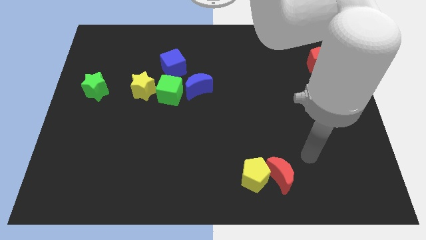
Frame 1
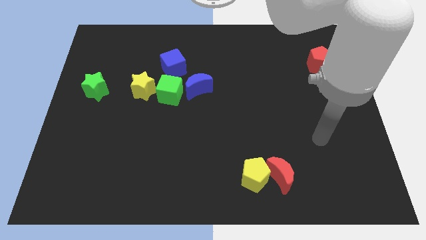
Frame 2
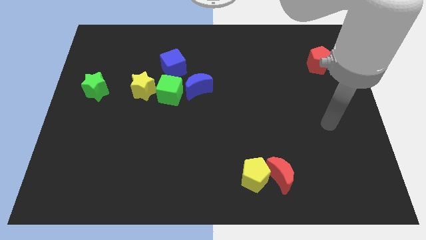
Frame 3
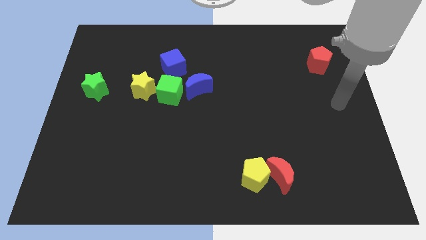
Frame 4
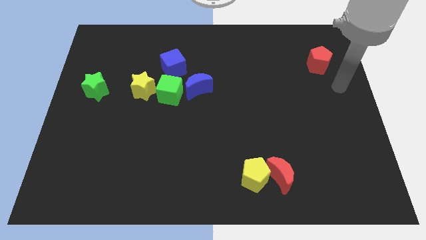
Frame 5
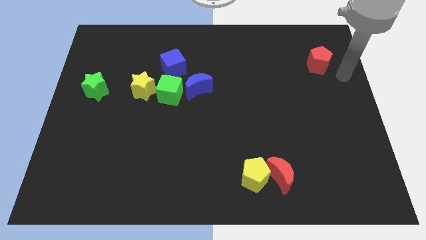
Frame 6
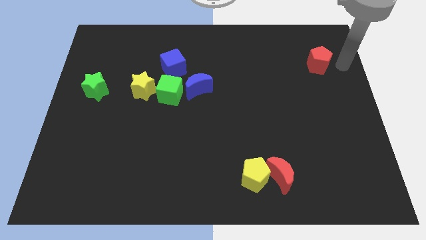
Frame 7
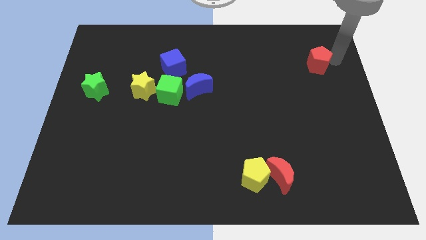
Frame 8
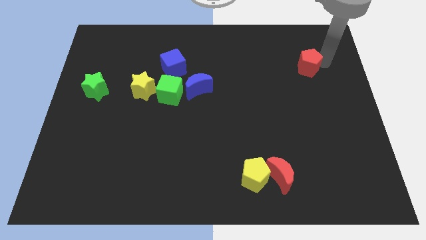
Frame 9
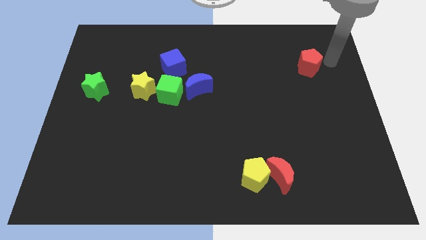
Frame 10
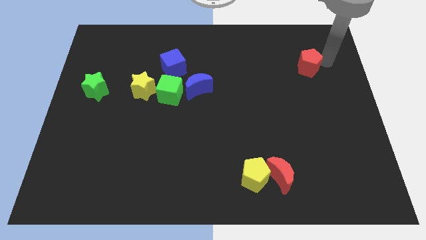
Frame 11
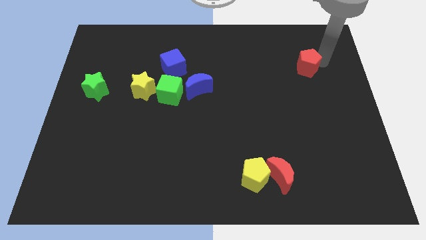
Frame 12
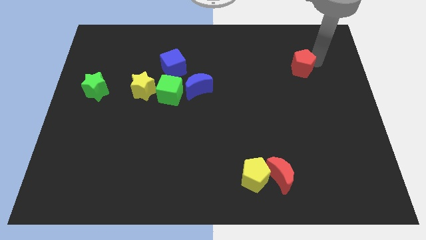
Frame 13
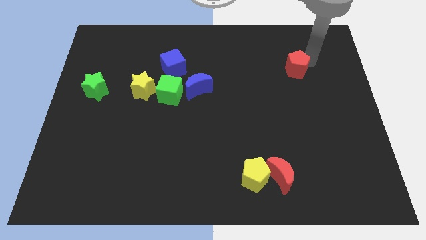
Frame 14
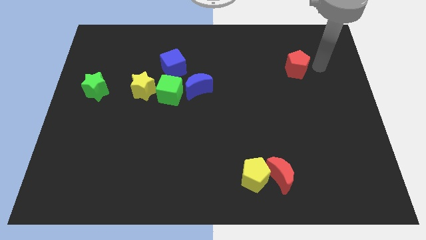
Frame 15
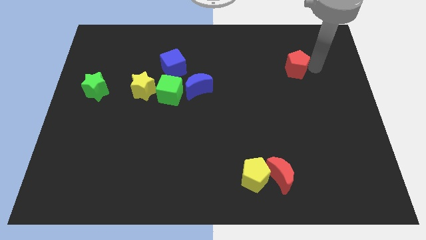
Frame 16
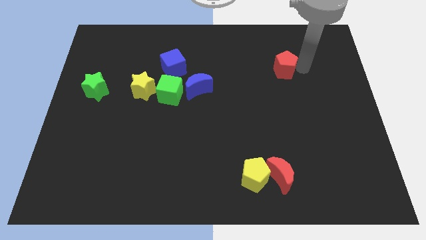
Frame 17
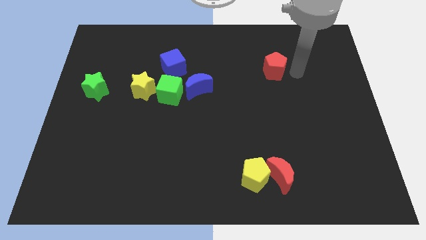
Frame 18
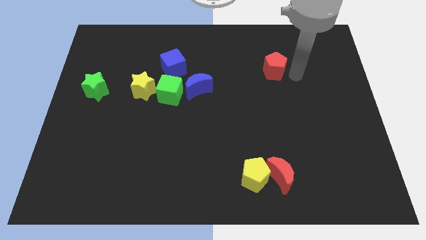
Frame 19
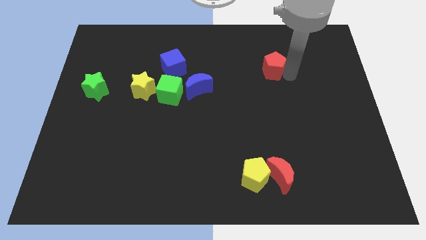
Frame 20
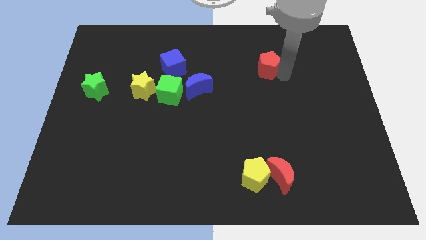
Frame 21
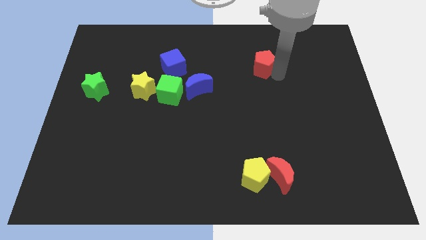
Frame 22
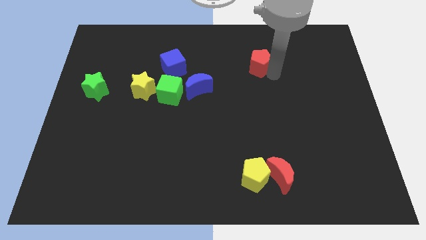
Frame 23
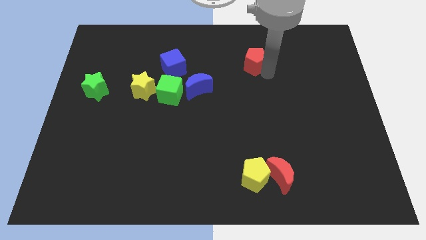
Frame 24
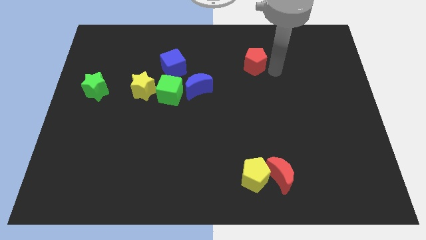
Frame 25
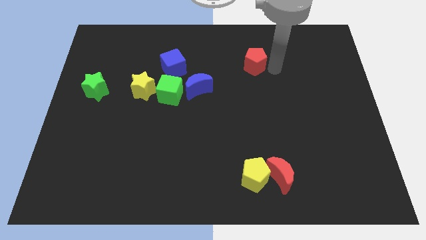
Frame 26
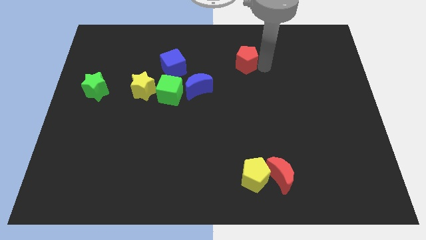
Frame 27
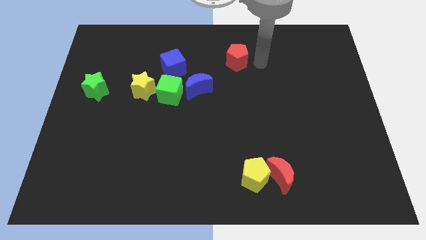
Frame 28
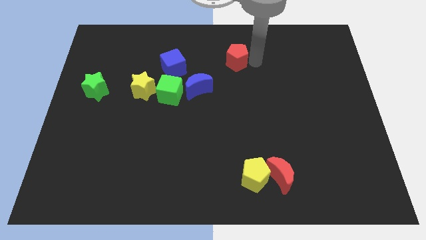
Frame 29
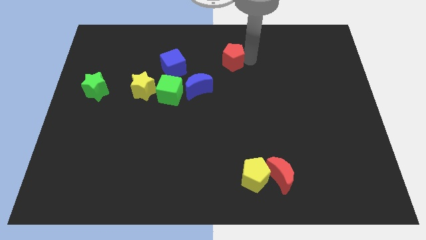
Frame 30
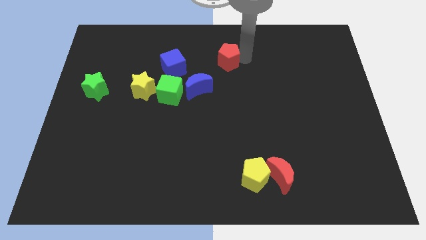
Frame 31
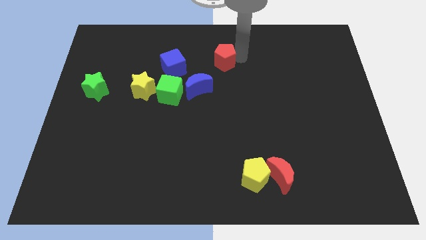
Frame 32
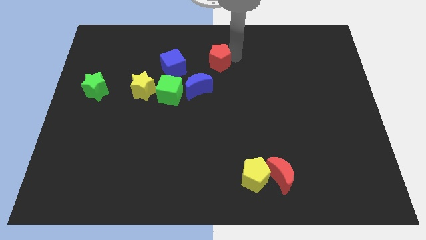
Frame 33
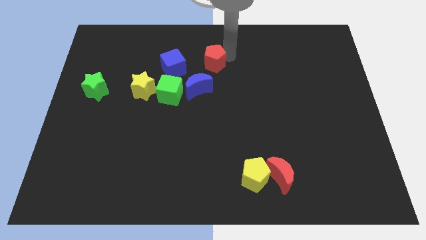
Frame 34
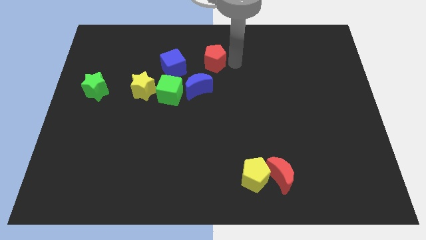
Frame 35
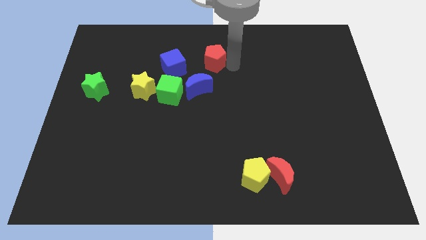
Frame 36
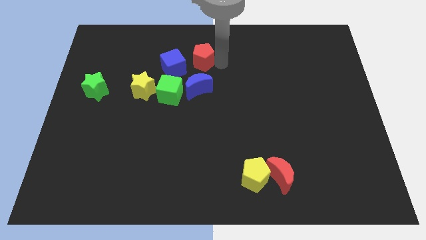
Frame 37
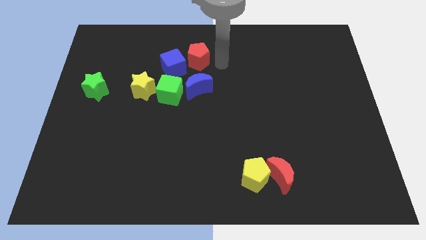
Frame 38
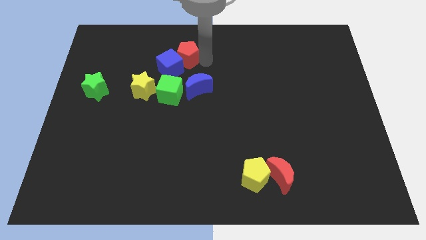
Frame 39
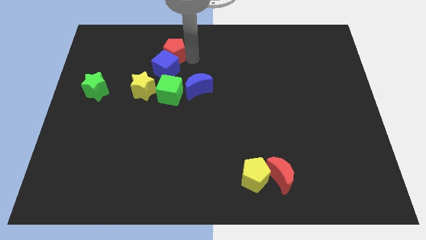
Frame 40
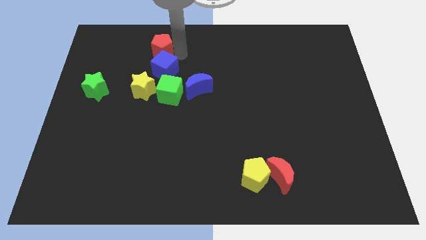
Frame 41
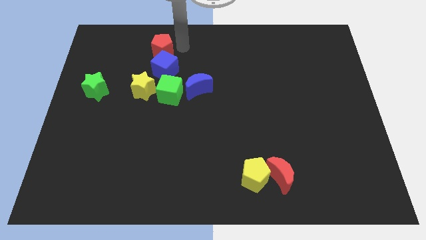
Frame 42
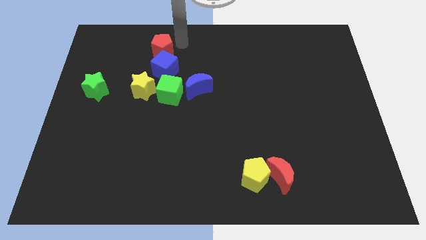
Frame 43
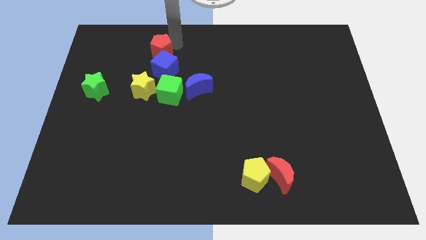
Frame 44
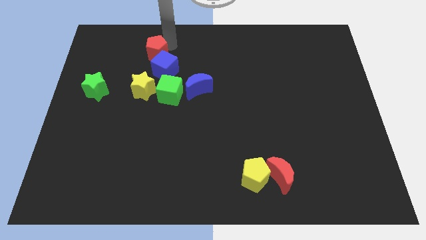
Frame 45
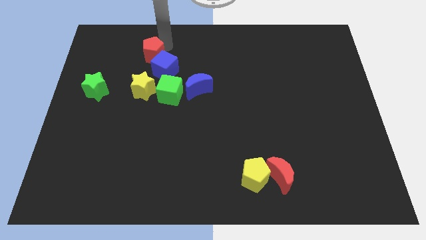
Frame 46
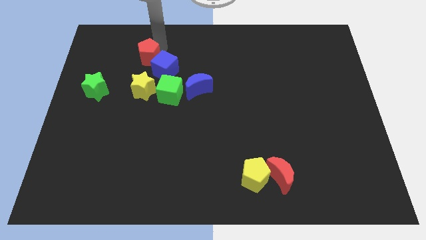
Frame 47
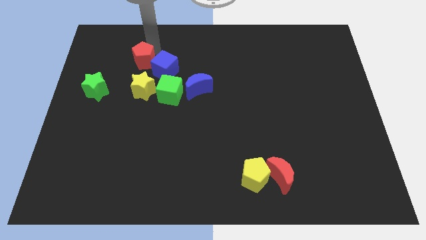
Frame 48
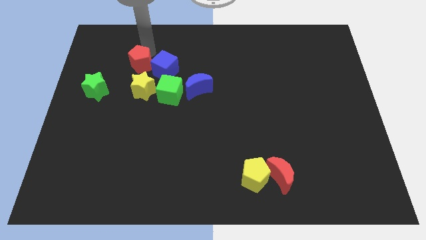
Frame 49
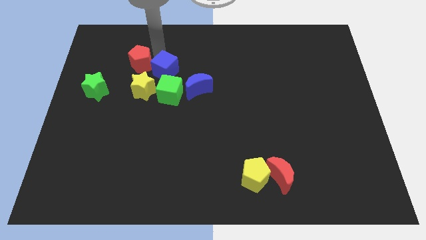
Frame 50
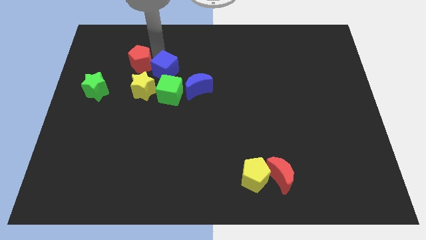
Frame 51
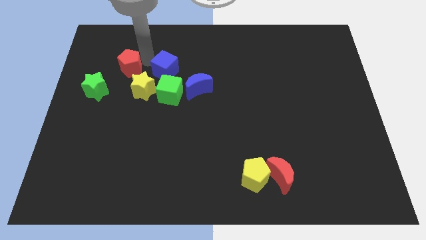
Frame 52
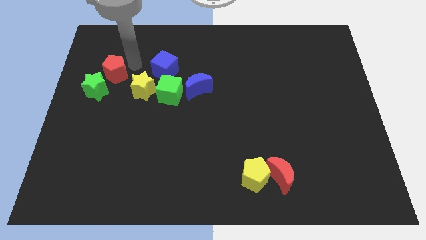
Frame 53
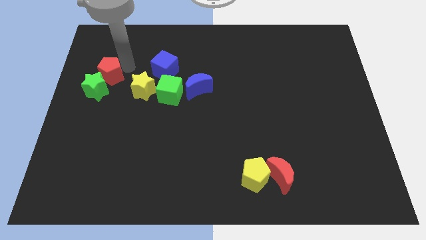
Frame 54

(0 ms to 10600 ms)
slide the red pentagon towards the green star
